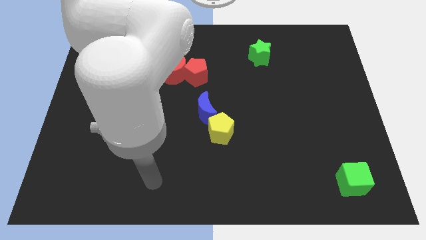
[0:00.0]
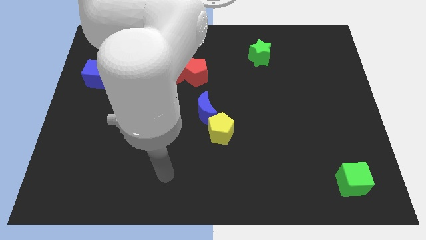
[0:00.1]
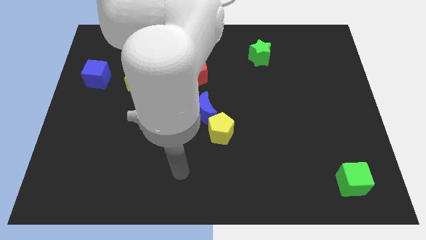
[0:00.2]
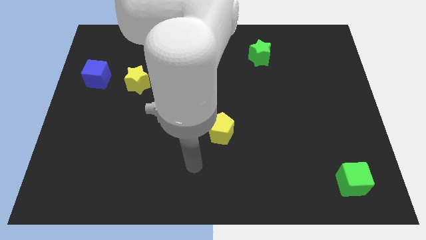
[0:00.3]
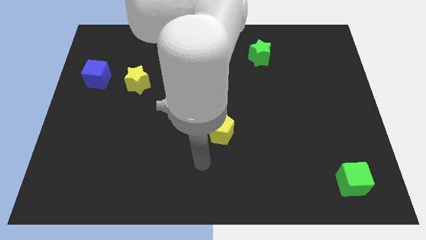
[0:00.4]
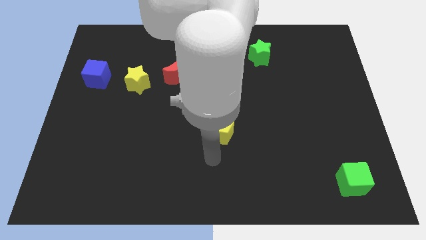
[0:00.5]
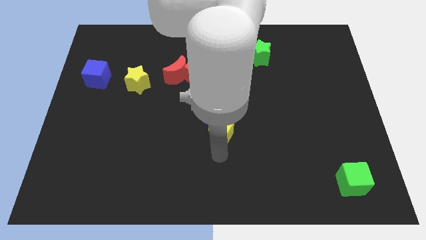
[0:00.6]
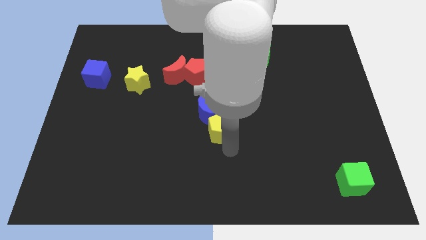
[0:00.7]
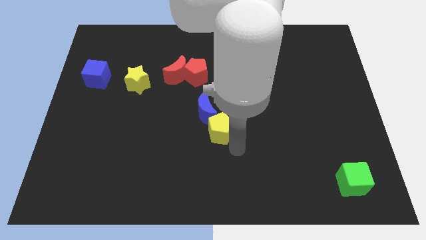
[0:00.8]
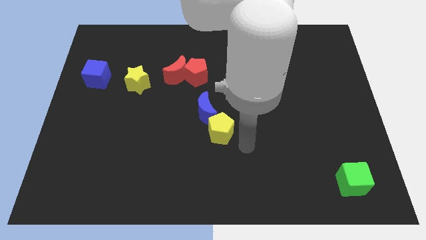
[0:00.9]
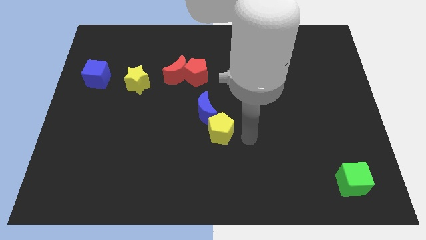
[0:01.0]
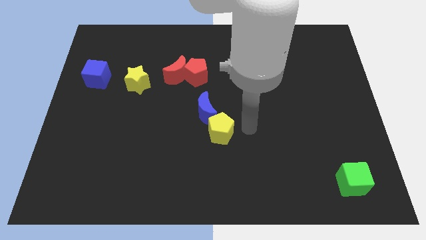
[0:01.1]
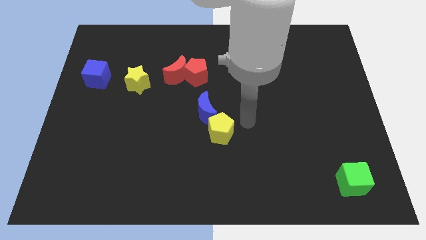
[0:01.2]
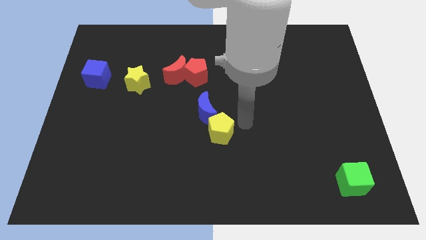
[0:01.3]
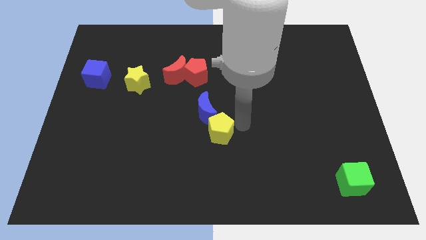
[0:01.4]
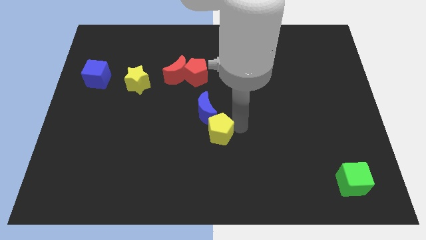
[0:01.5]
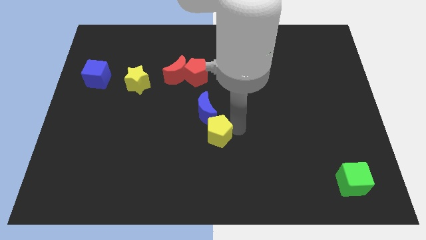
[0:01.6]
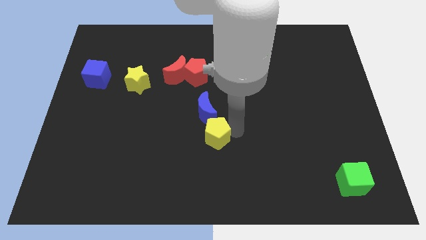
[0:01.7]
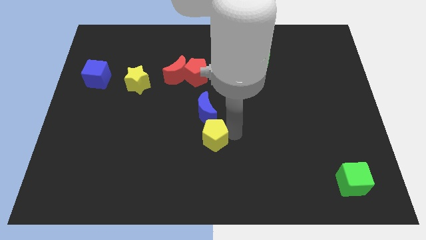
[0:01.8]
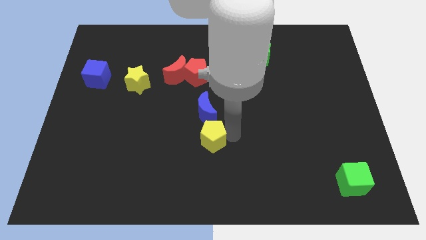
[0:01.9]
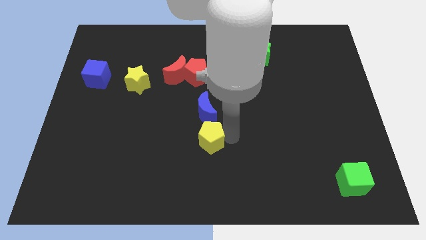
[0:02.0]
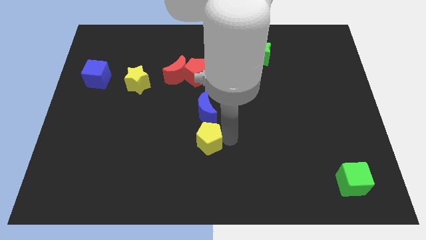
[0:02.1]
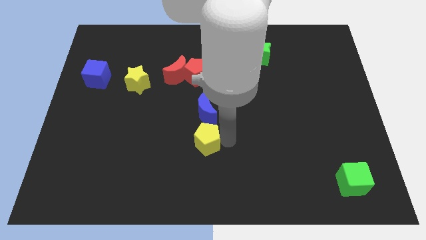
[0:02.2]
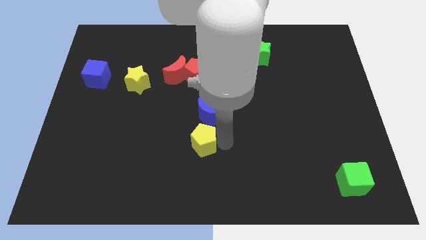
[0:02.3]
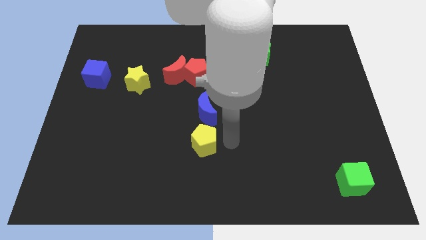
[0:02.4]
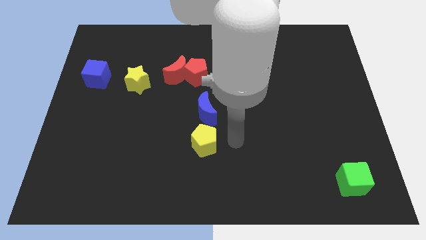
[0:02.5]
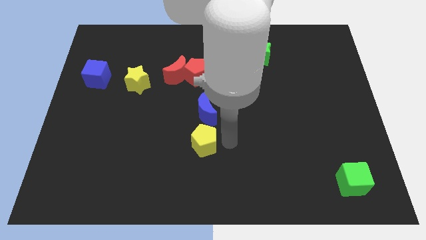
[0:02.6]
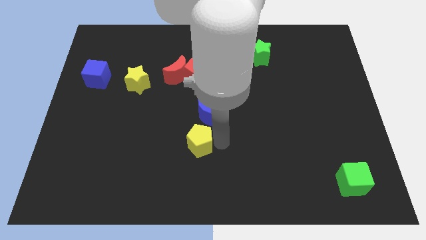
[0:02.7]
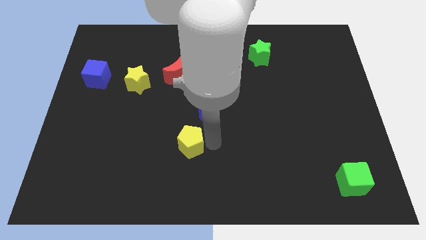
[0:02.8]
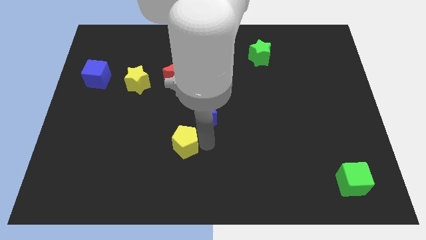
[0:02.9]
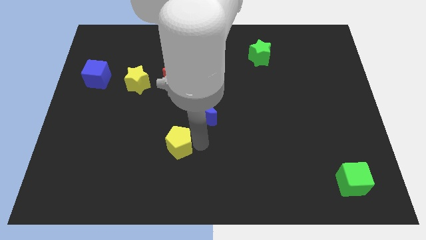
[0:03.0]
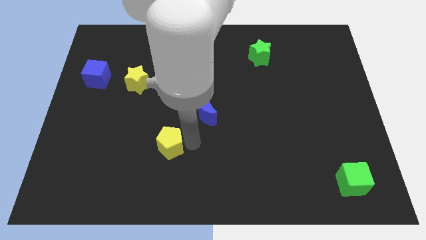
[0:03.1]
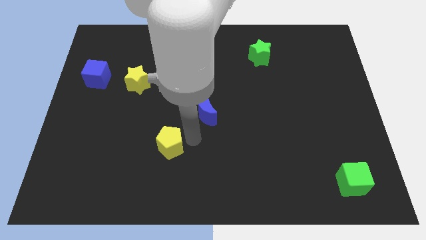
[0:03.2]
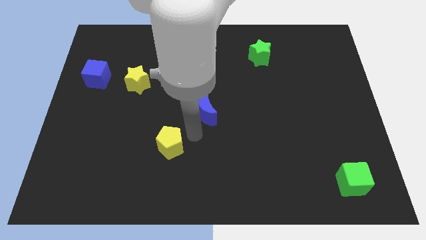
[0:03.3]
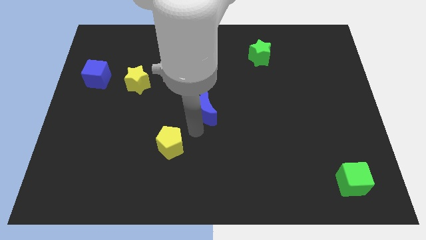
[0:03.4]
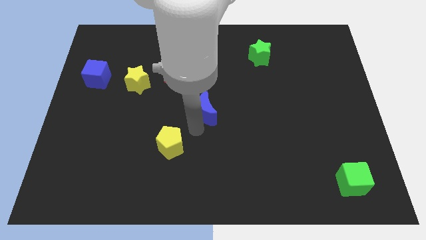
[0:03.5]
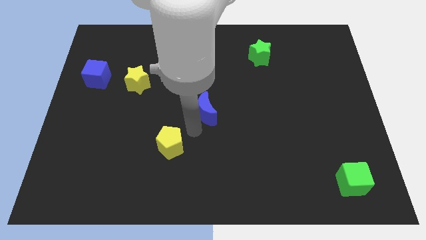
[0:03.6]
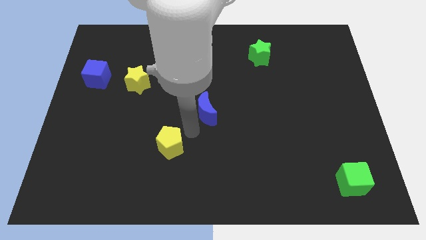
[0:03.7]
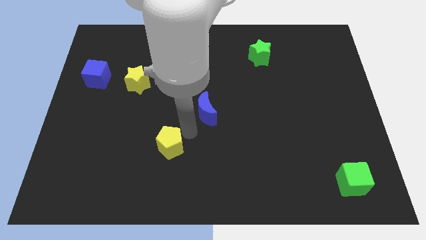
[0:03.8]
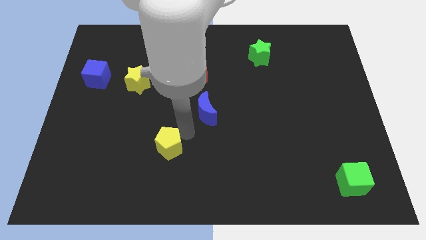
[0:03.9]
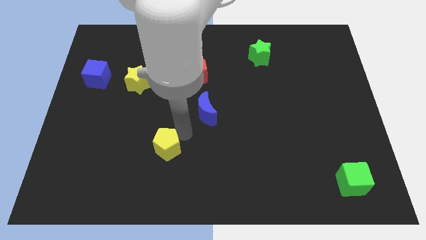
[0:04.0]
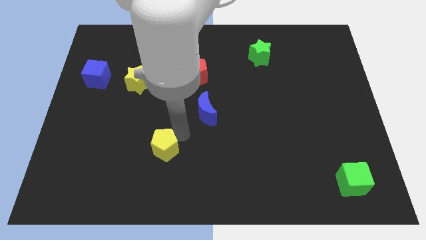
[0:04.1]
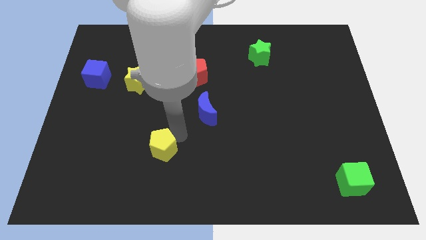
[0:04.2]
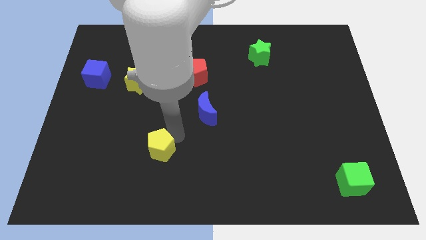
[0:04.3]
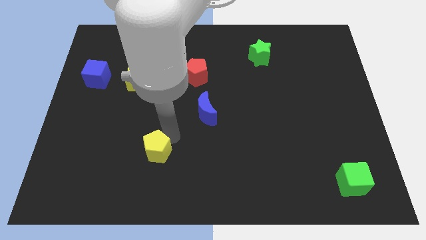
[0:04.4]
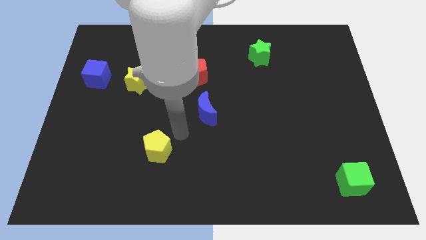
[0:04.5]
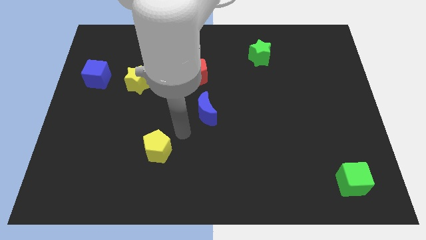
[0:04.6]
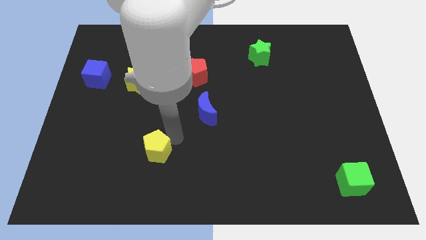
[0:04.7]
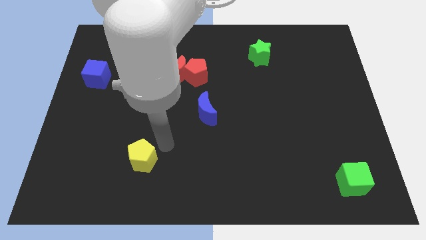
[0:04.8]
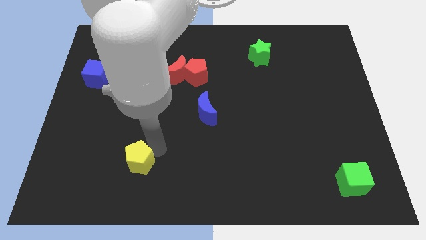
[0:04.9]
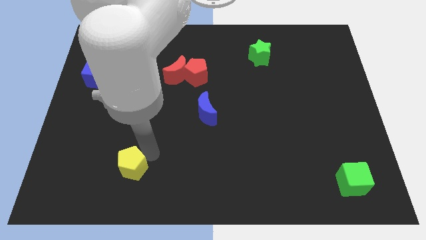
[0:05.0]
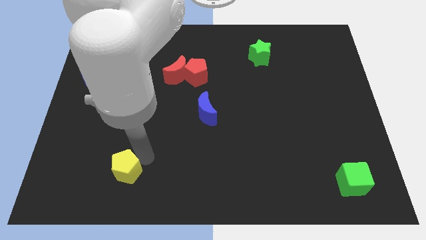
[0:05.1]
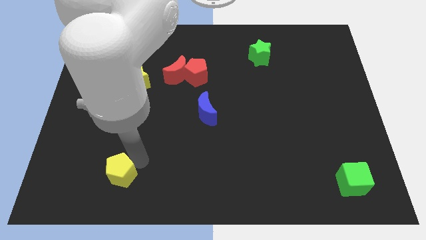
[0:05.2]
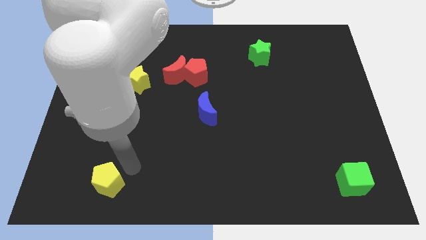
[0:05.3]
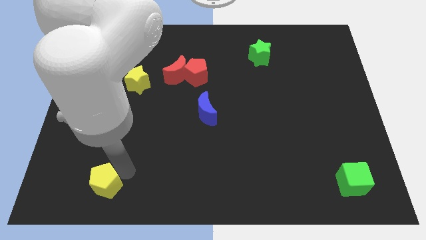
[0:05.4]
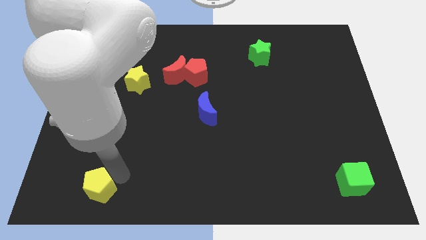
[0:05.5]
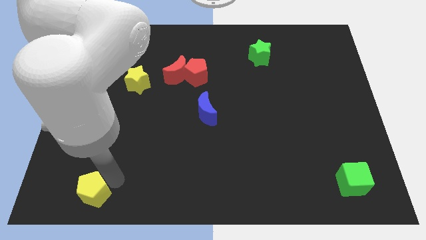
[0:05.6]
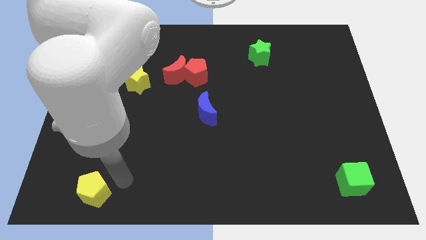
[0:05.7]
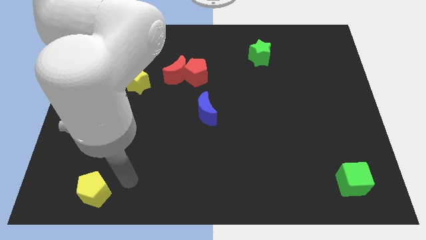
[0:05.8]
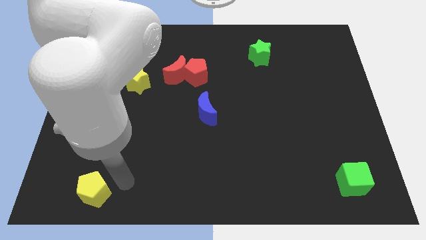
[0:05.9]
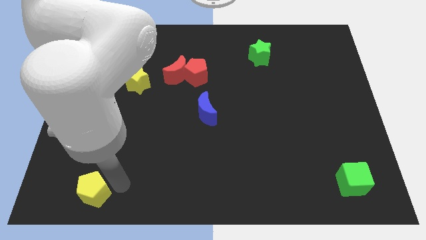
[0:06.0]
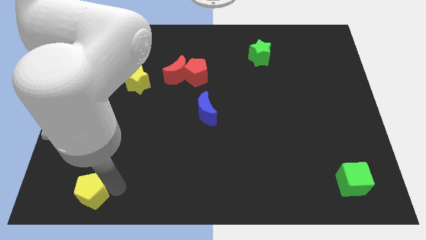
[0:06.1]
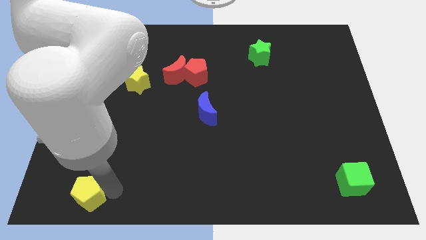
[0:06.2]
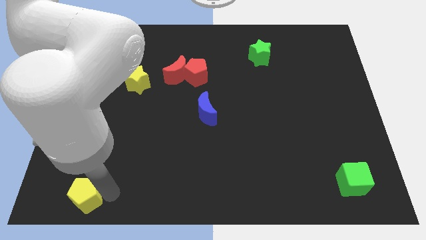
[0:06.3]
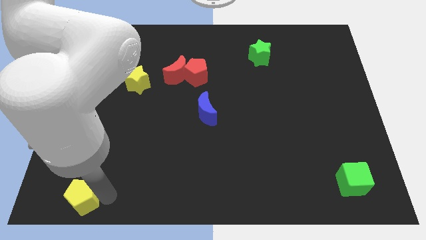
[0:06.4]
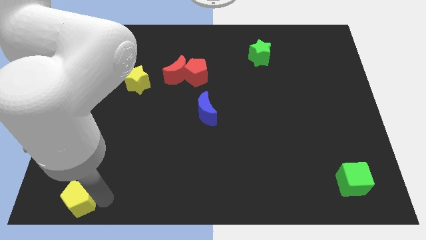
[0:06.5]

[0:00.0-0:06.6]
move the yellow pentagon to the bottom left corner
